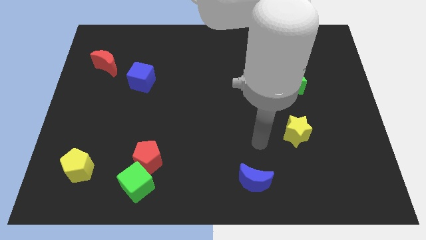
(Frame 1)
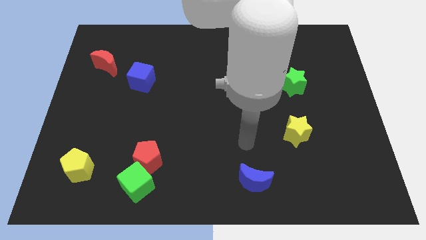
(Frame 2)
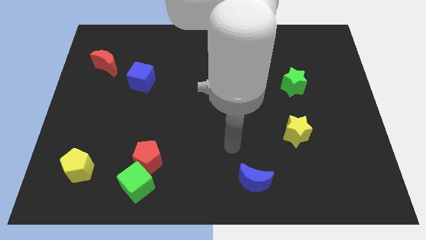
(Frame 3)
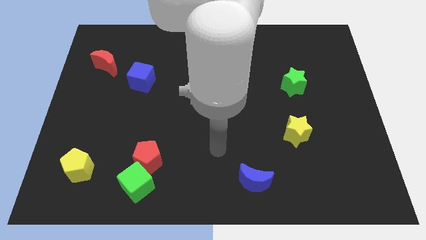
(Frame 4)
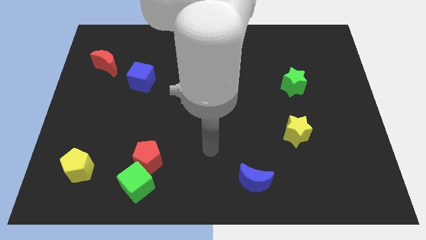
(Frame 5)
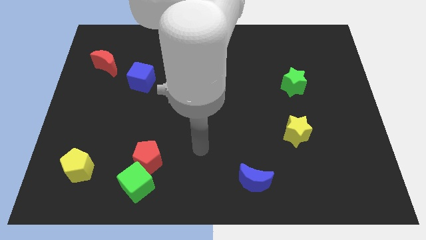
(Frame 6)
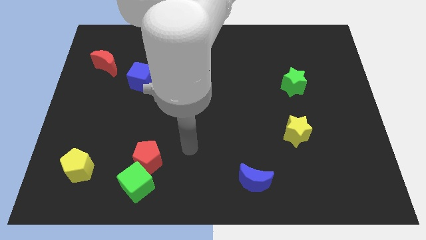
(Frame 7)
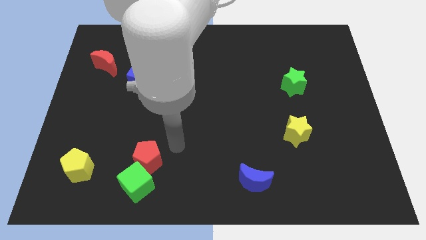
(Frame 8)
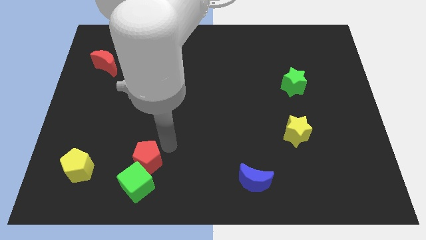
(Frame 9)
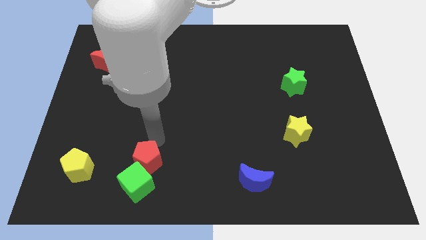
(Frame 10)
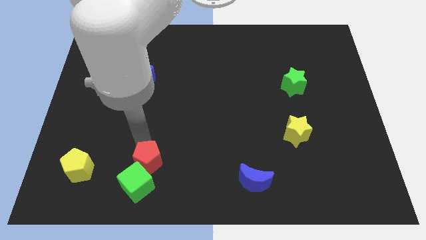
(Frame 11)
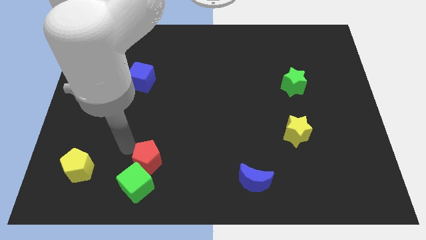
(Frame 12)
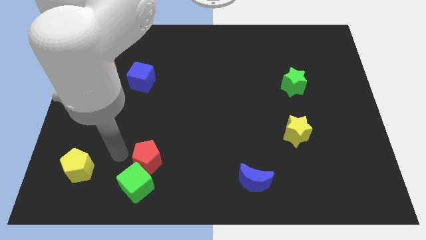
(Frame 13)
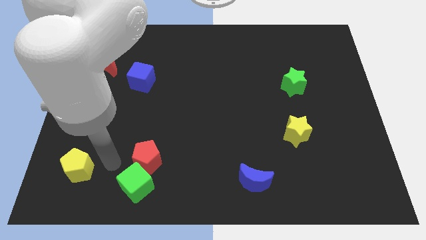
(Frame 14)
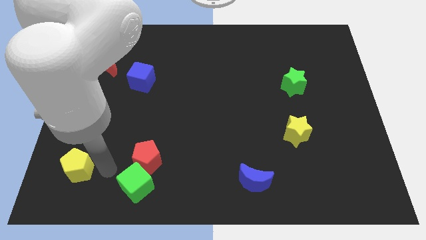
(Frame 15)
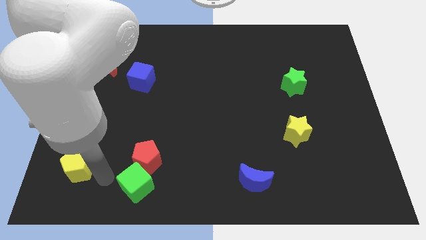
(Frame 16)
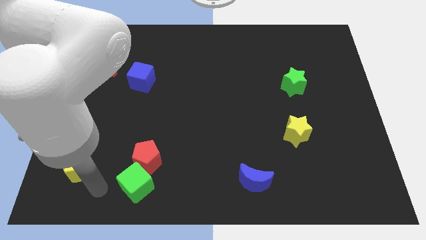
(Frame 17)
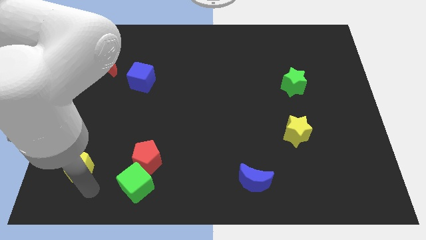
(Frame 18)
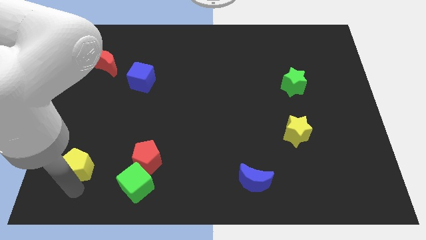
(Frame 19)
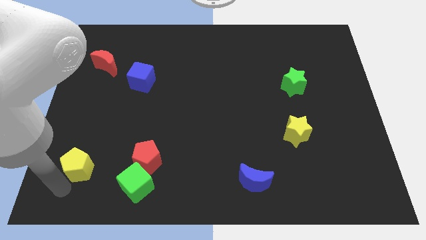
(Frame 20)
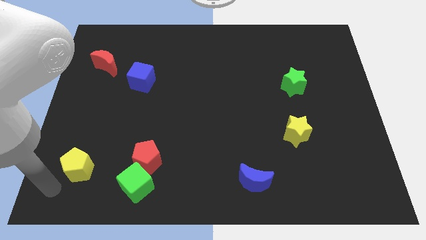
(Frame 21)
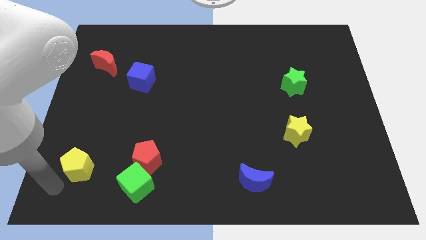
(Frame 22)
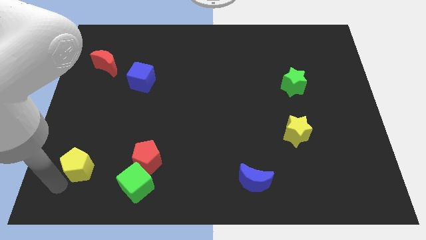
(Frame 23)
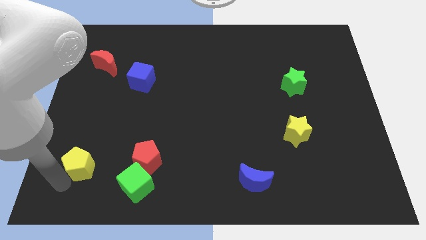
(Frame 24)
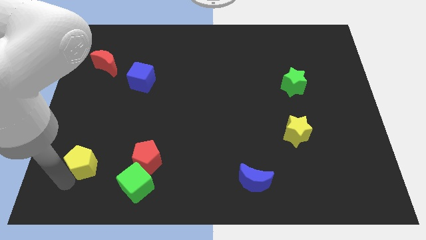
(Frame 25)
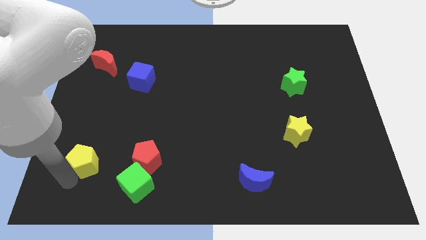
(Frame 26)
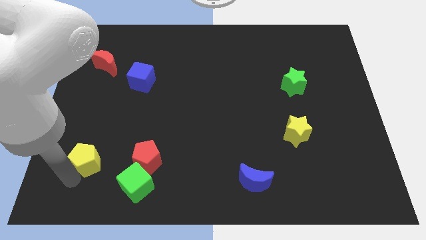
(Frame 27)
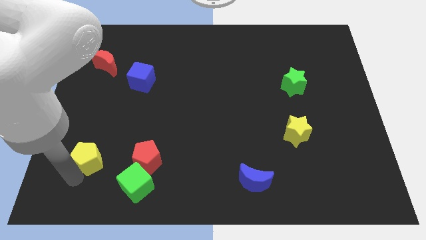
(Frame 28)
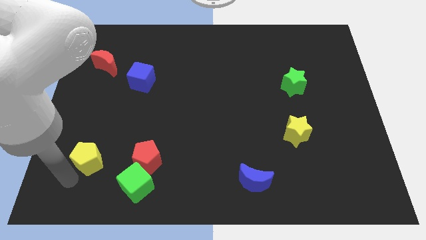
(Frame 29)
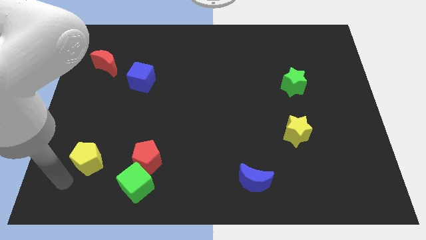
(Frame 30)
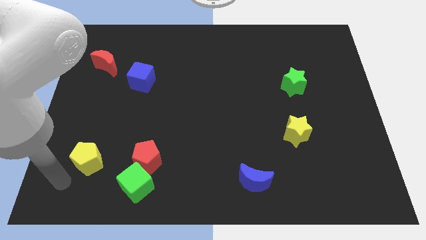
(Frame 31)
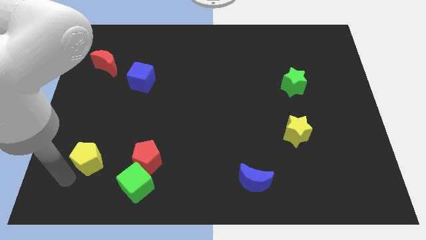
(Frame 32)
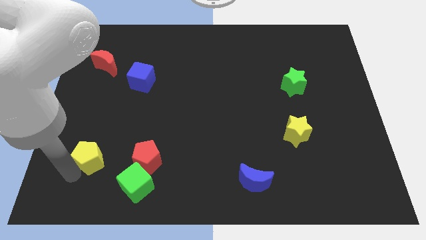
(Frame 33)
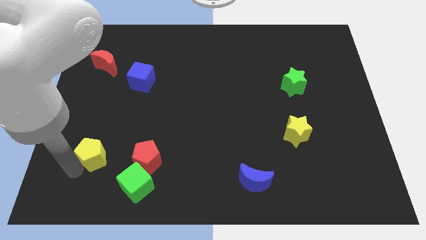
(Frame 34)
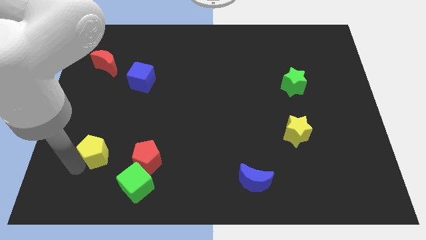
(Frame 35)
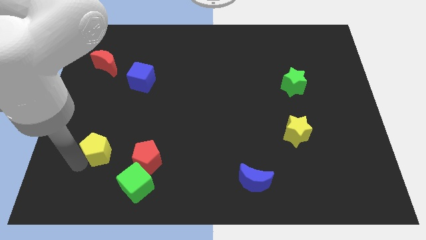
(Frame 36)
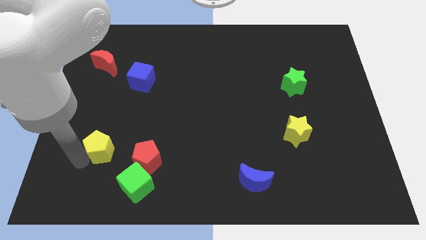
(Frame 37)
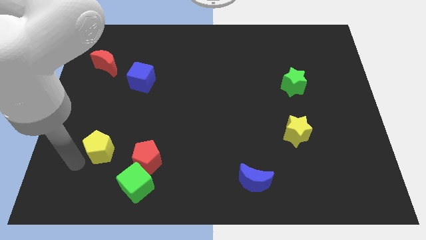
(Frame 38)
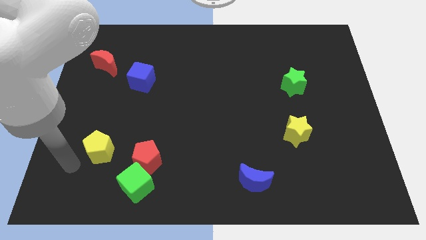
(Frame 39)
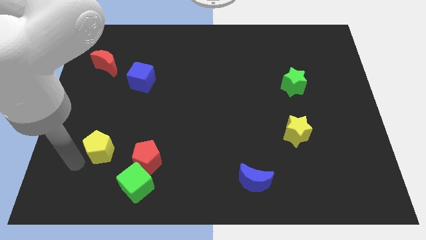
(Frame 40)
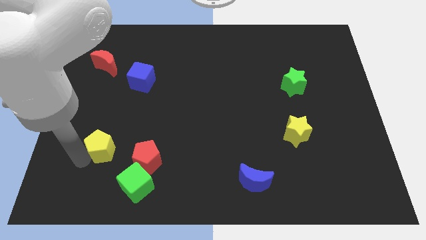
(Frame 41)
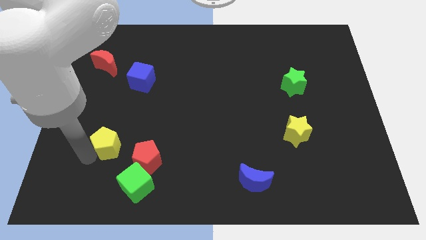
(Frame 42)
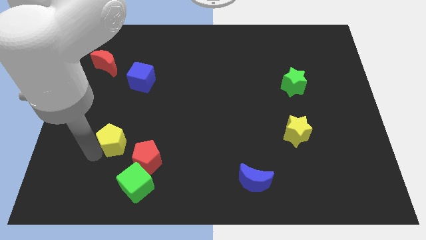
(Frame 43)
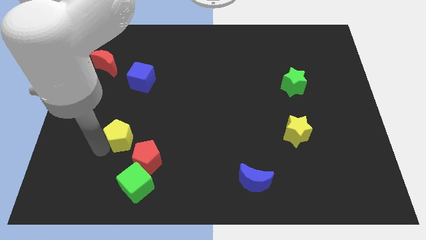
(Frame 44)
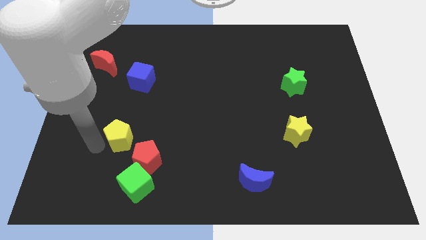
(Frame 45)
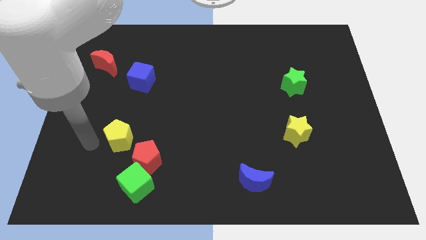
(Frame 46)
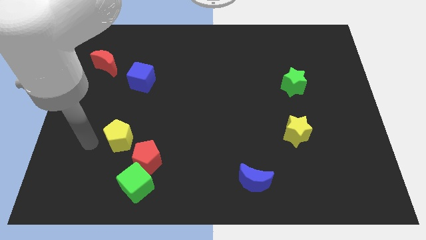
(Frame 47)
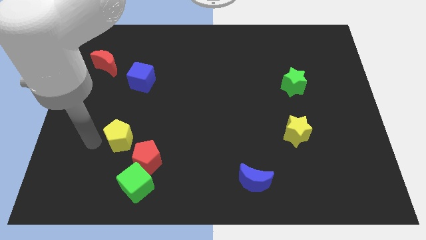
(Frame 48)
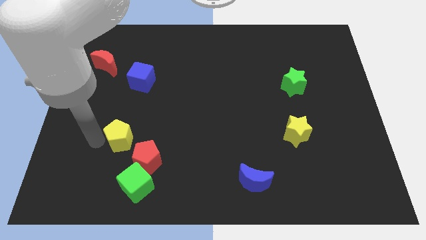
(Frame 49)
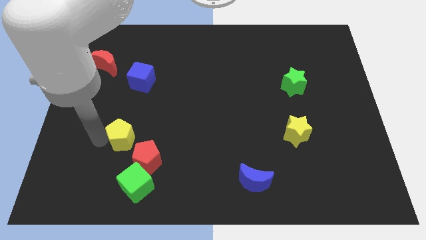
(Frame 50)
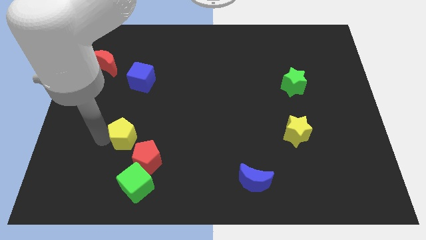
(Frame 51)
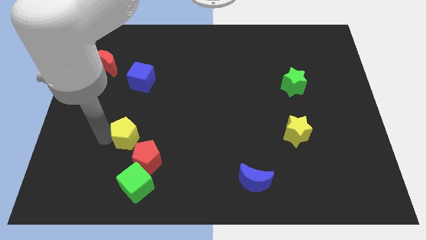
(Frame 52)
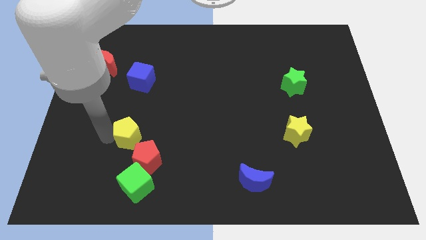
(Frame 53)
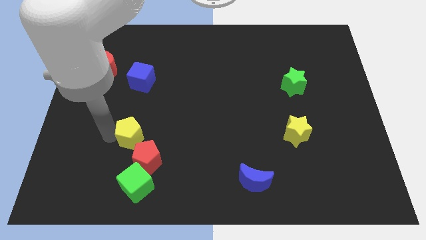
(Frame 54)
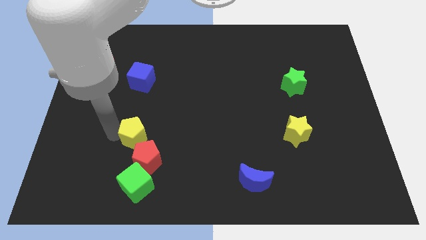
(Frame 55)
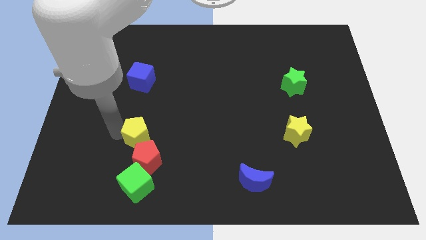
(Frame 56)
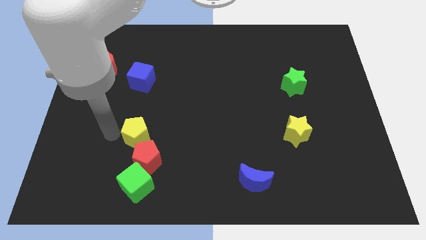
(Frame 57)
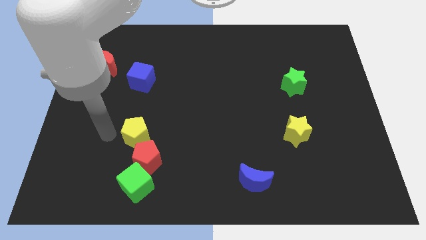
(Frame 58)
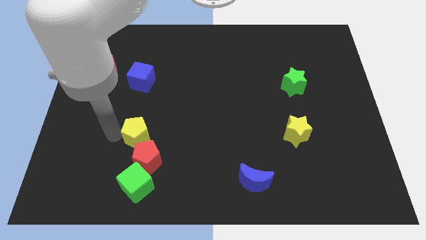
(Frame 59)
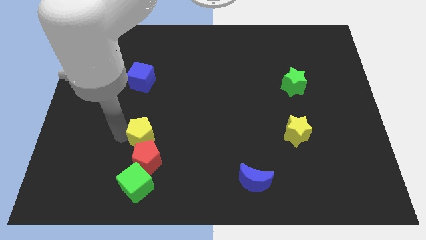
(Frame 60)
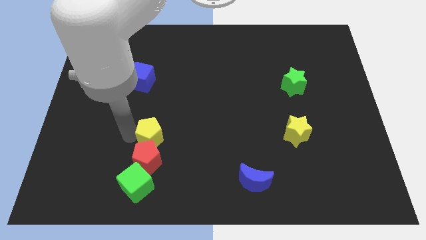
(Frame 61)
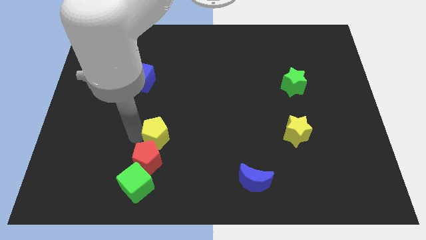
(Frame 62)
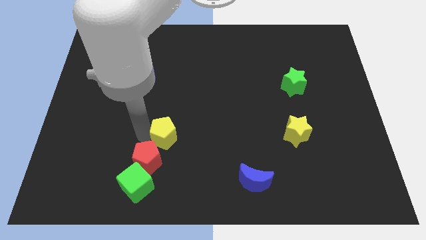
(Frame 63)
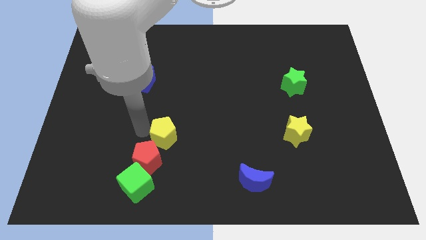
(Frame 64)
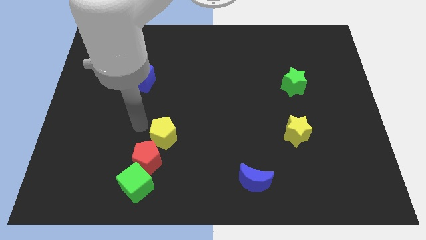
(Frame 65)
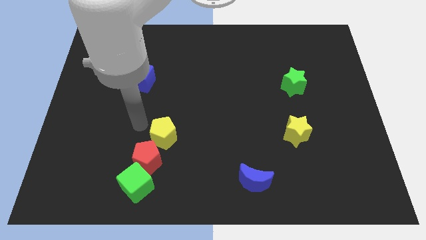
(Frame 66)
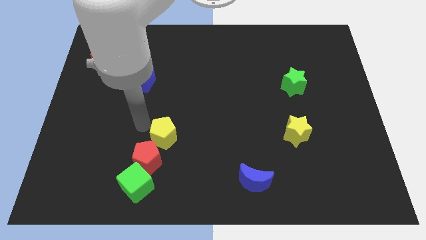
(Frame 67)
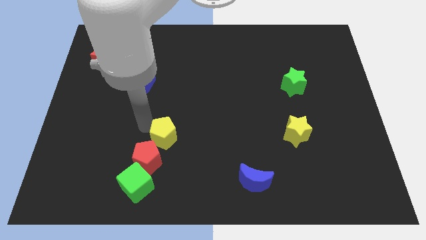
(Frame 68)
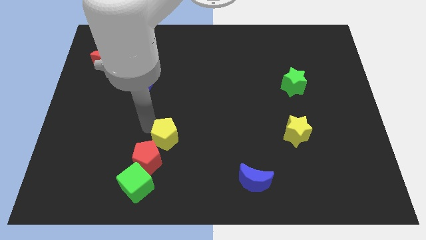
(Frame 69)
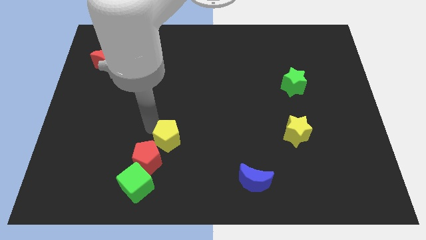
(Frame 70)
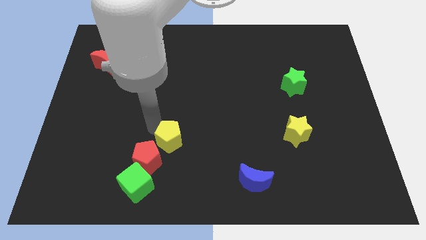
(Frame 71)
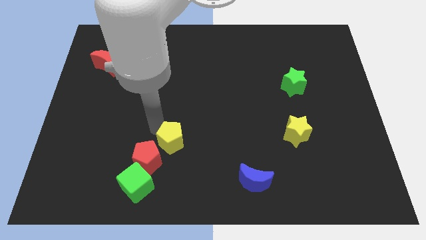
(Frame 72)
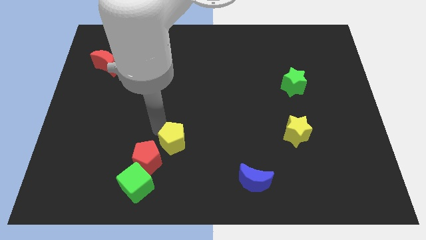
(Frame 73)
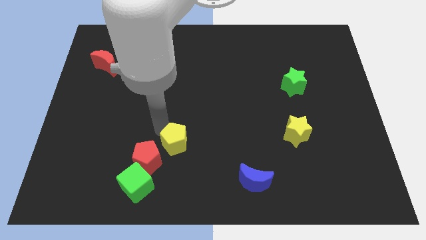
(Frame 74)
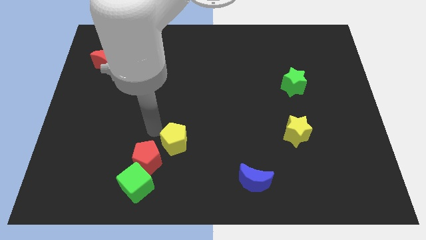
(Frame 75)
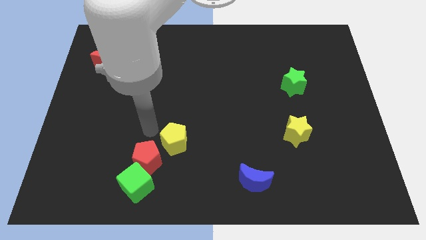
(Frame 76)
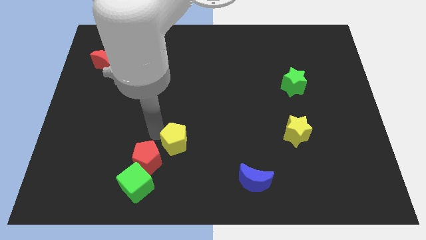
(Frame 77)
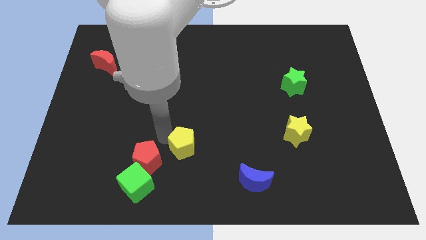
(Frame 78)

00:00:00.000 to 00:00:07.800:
move the yellow pentagon right

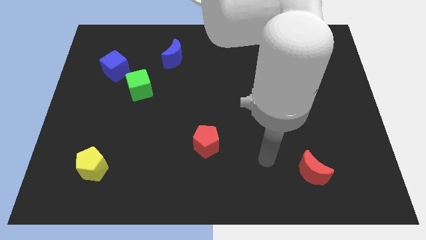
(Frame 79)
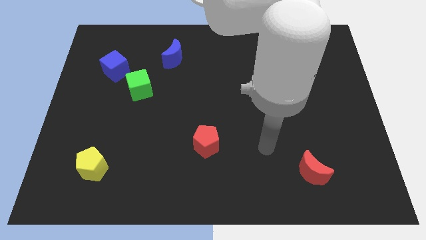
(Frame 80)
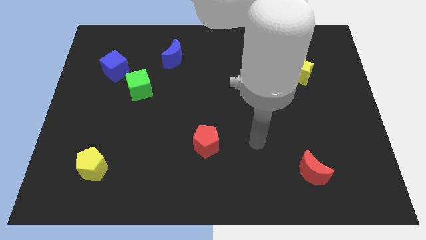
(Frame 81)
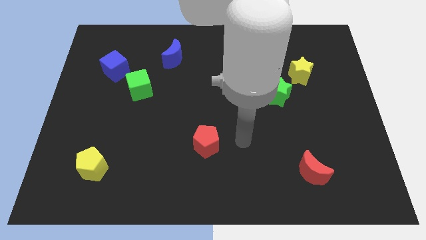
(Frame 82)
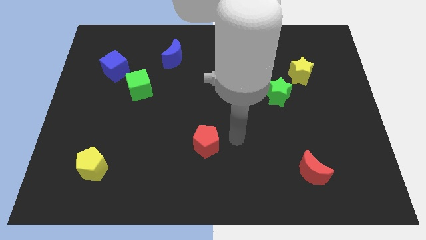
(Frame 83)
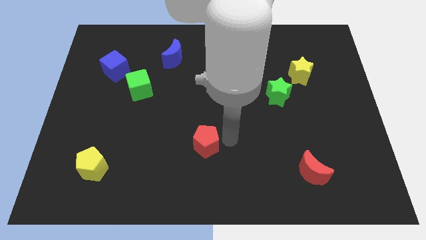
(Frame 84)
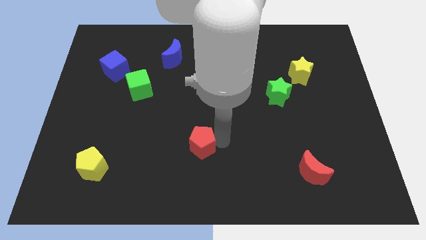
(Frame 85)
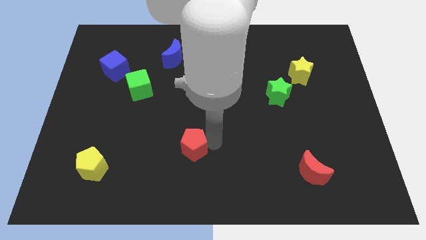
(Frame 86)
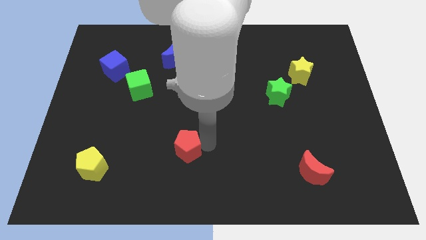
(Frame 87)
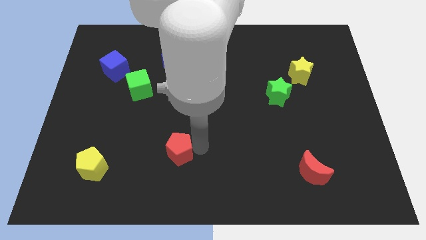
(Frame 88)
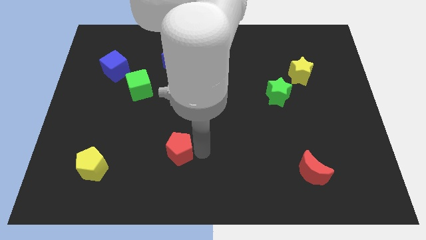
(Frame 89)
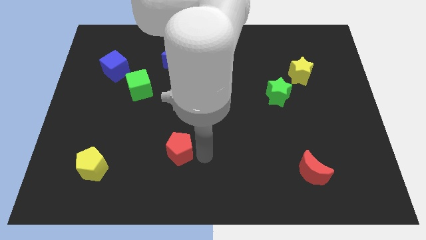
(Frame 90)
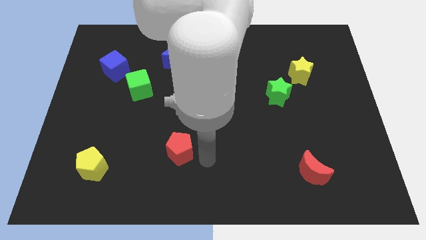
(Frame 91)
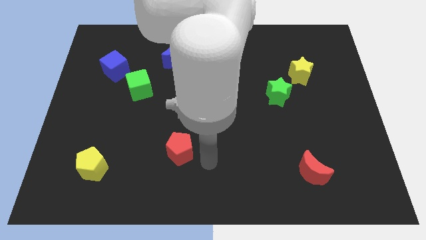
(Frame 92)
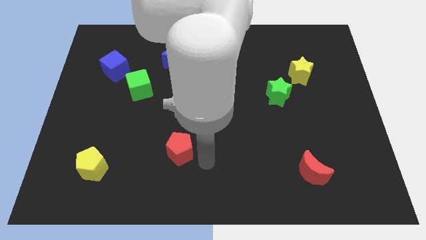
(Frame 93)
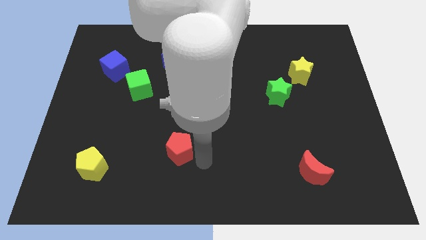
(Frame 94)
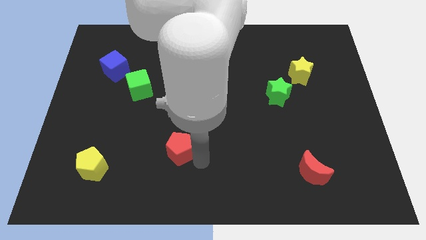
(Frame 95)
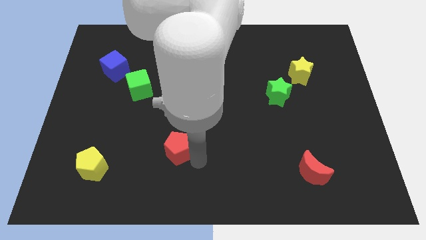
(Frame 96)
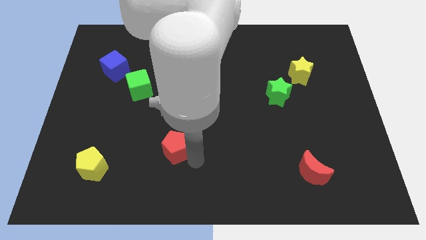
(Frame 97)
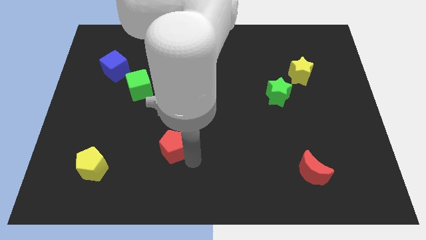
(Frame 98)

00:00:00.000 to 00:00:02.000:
push the red pentagon slightly to the left
